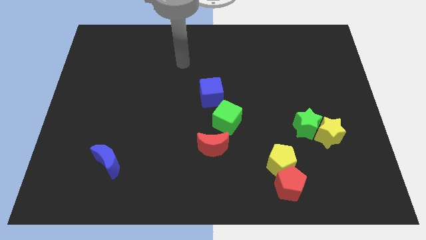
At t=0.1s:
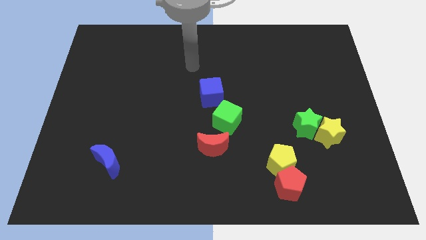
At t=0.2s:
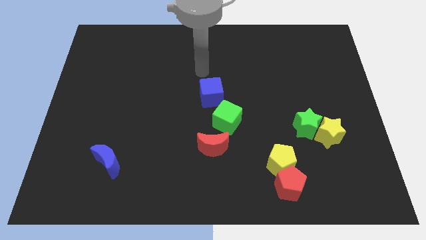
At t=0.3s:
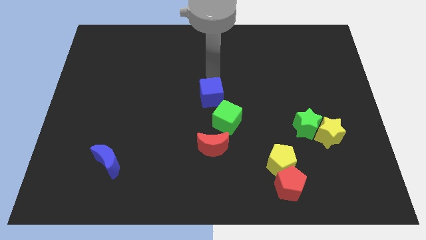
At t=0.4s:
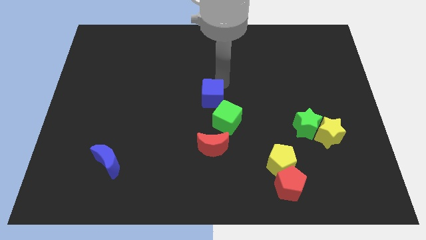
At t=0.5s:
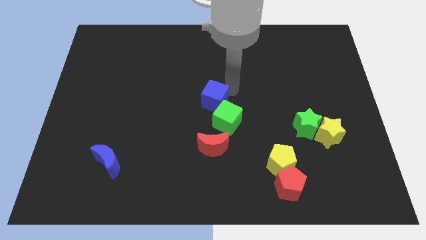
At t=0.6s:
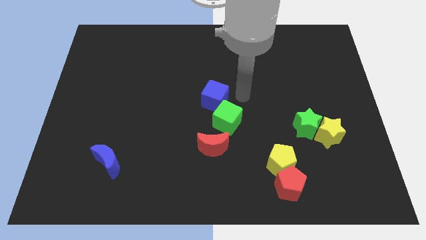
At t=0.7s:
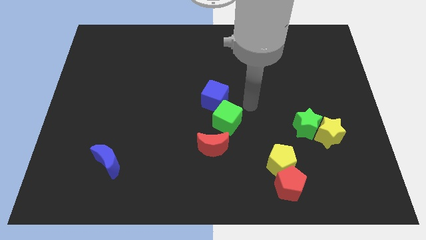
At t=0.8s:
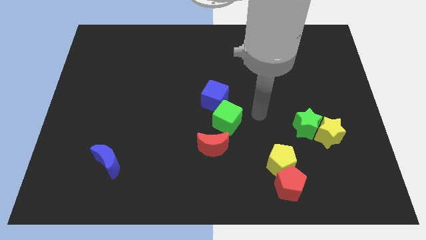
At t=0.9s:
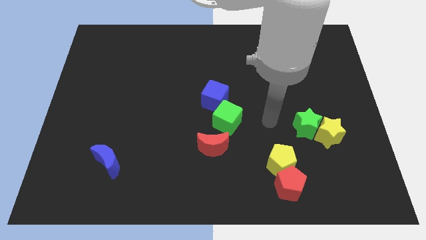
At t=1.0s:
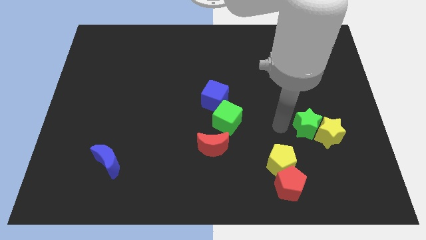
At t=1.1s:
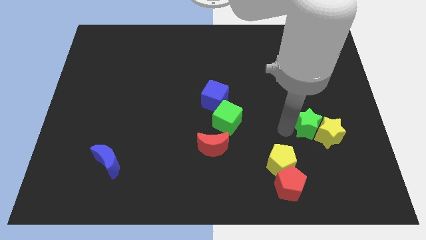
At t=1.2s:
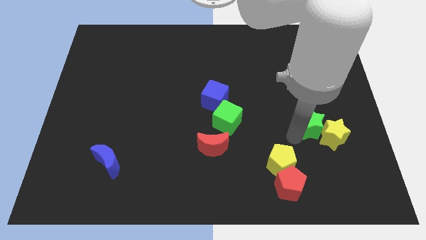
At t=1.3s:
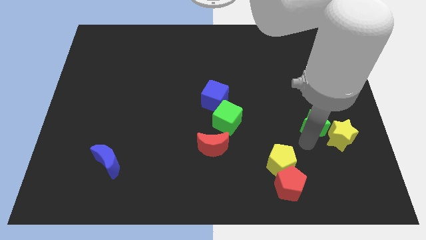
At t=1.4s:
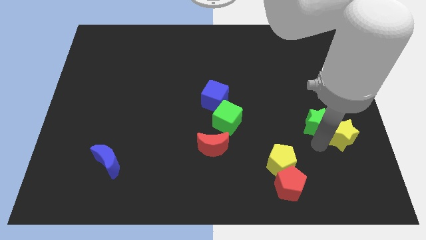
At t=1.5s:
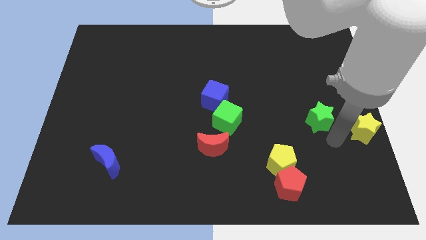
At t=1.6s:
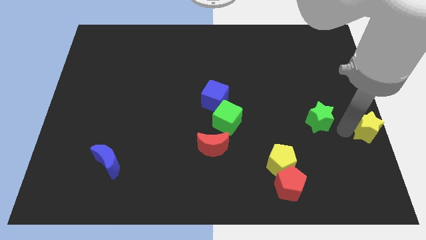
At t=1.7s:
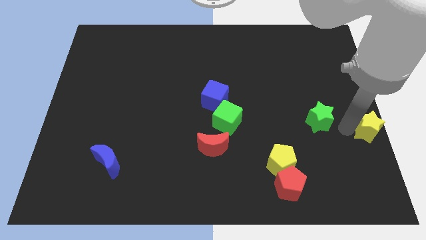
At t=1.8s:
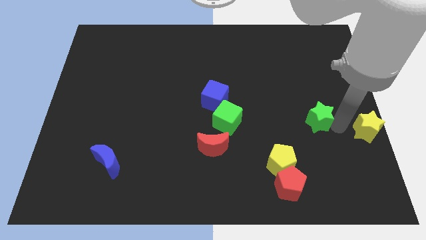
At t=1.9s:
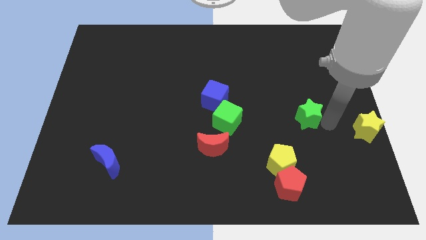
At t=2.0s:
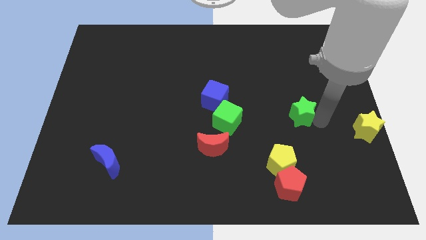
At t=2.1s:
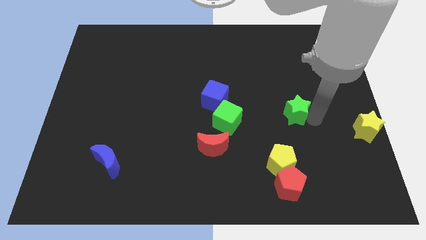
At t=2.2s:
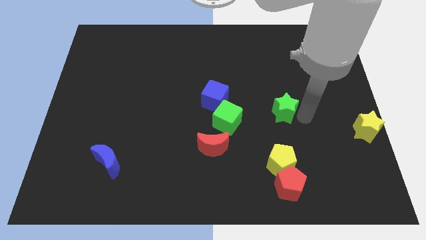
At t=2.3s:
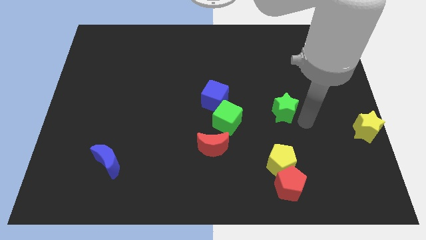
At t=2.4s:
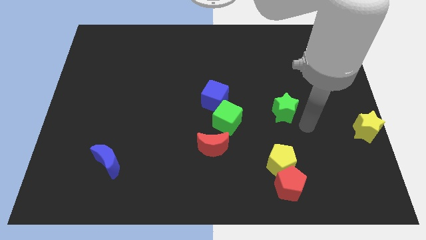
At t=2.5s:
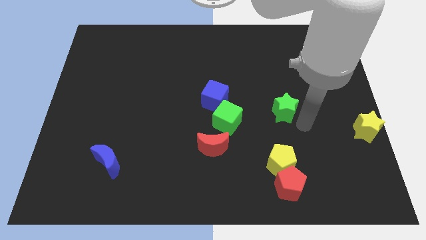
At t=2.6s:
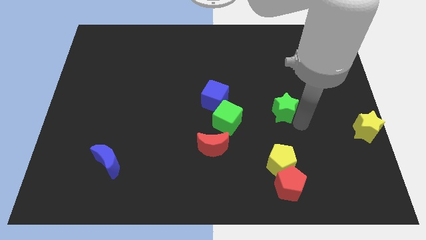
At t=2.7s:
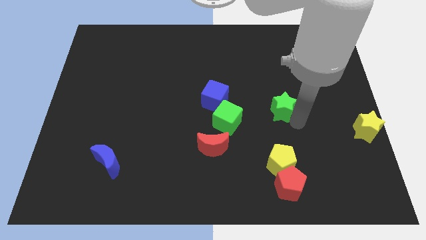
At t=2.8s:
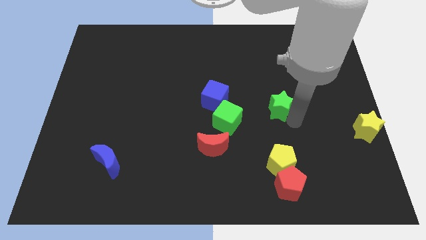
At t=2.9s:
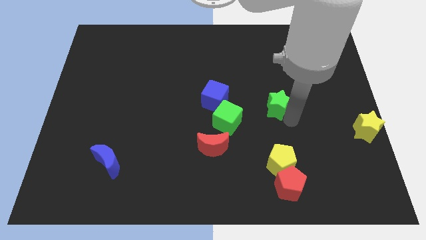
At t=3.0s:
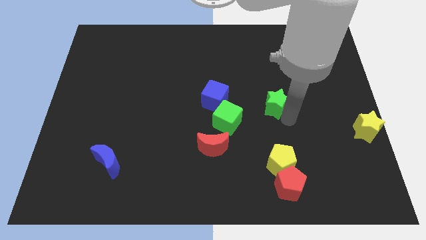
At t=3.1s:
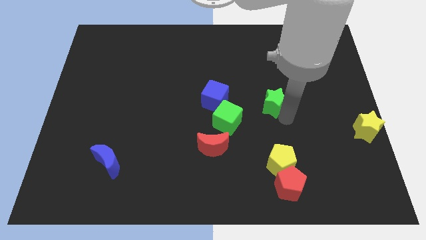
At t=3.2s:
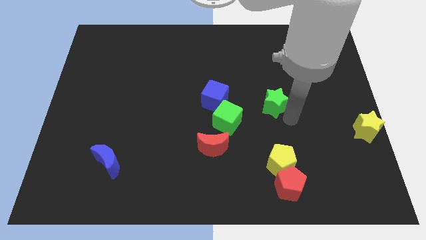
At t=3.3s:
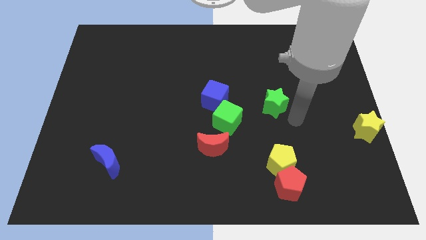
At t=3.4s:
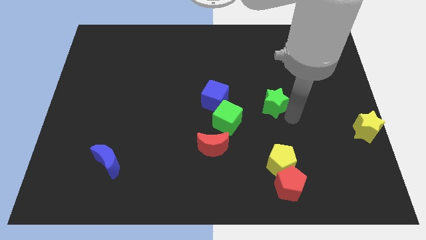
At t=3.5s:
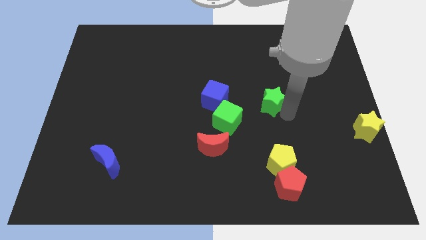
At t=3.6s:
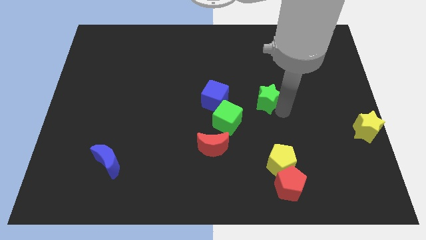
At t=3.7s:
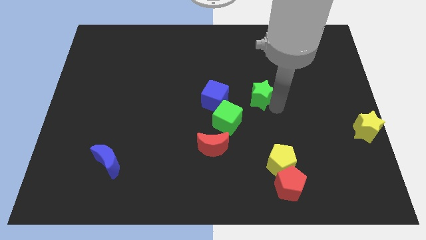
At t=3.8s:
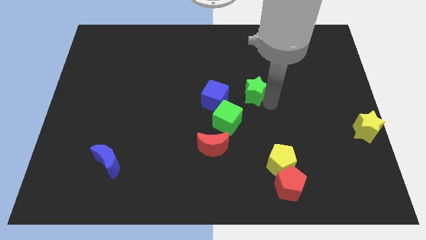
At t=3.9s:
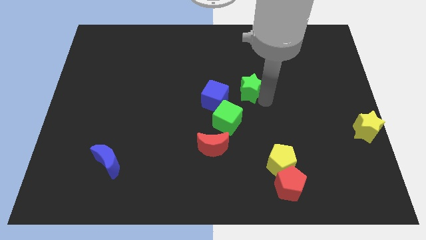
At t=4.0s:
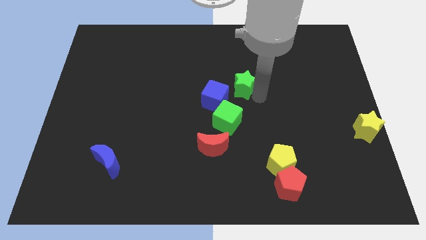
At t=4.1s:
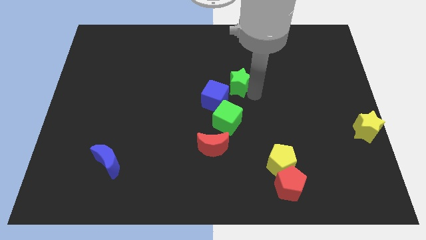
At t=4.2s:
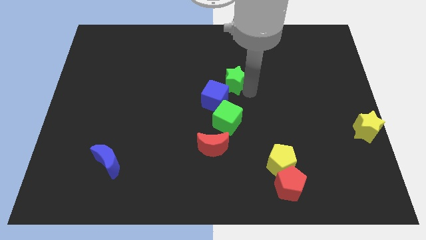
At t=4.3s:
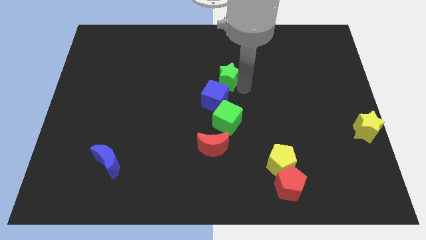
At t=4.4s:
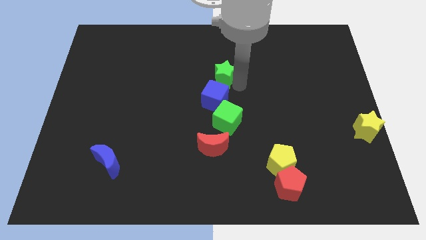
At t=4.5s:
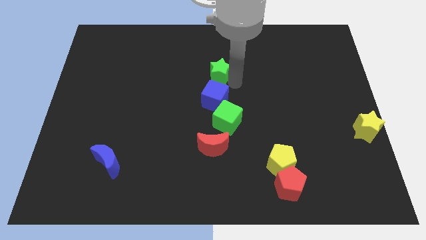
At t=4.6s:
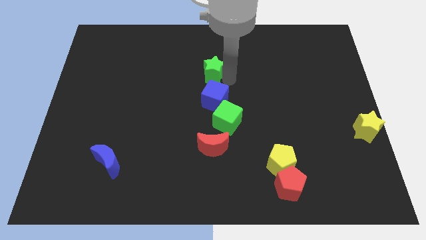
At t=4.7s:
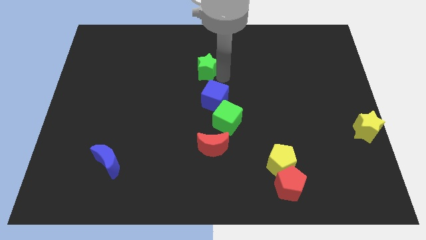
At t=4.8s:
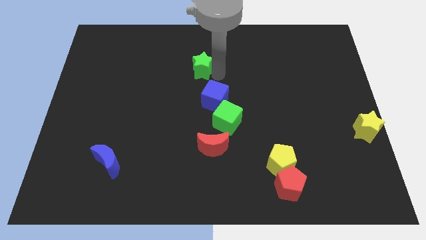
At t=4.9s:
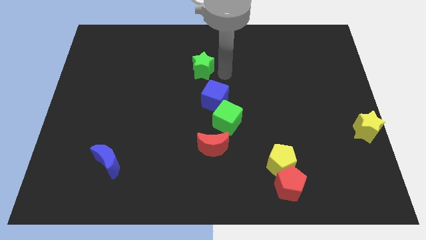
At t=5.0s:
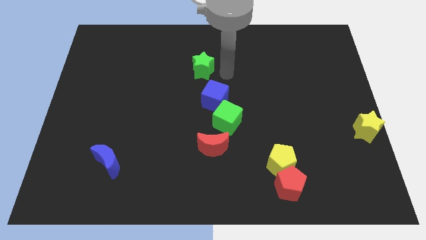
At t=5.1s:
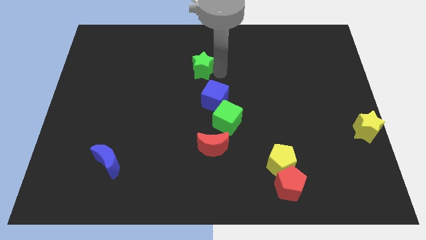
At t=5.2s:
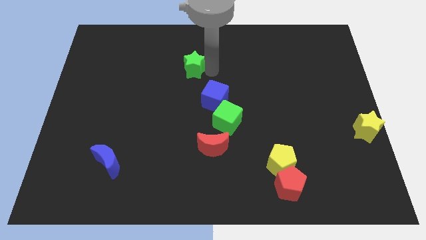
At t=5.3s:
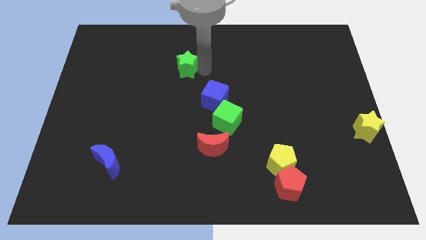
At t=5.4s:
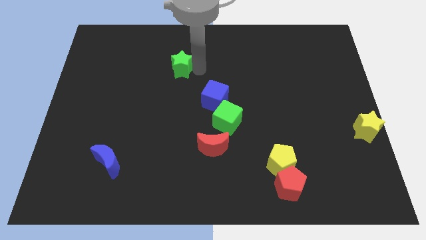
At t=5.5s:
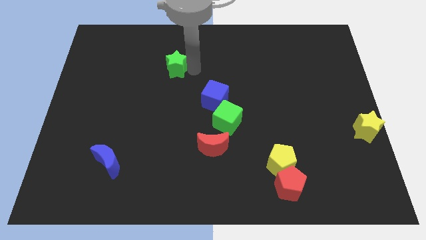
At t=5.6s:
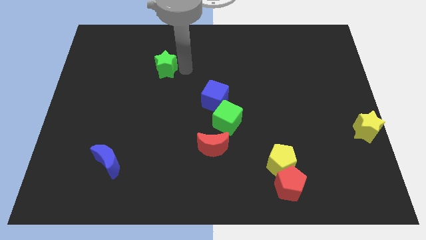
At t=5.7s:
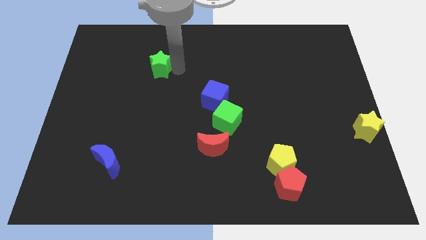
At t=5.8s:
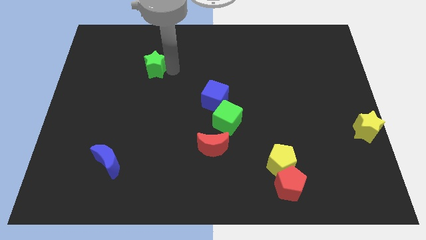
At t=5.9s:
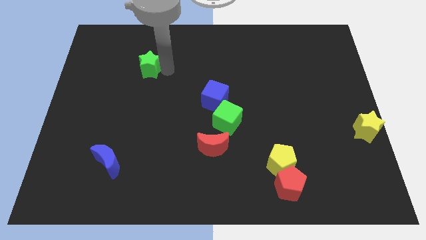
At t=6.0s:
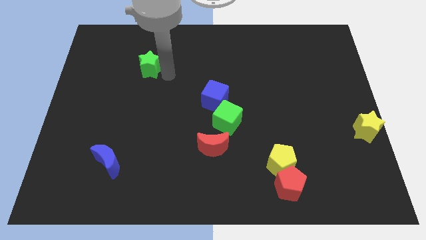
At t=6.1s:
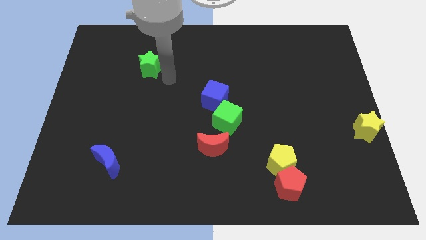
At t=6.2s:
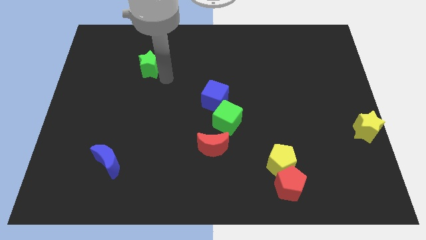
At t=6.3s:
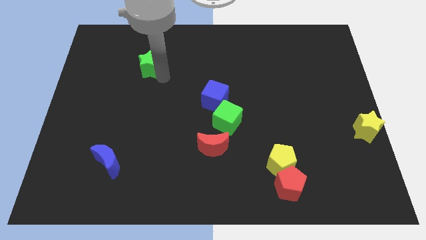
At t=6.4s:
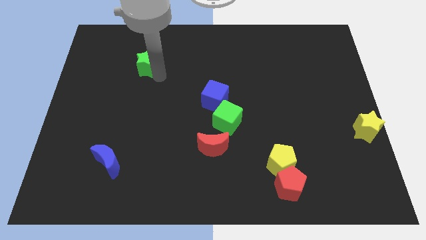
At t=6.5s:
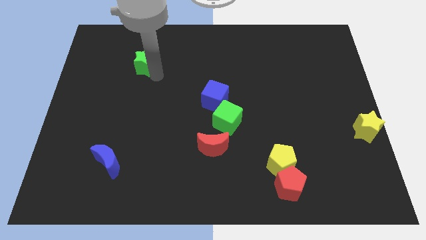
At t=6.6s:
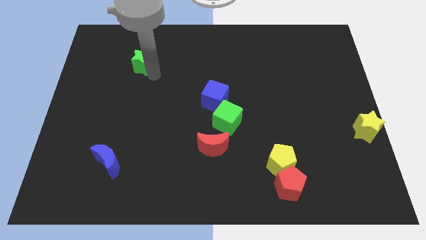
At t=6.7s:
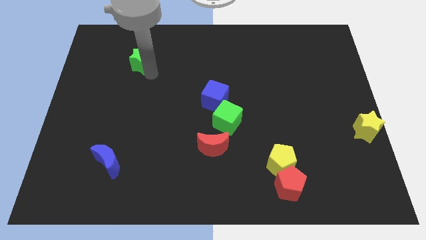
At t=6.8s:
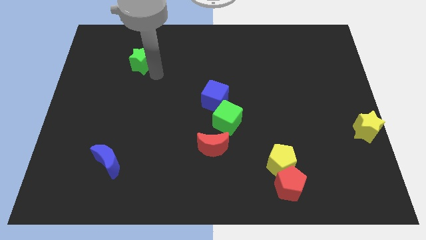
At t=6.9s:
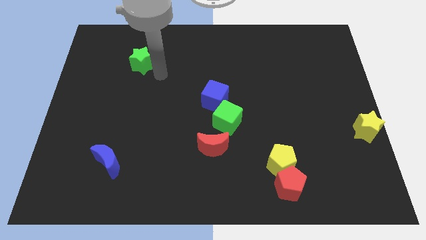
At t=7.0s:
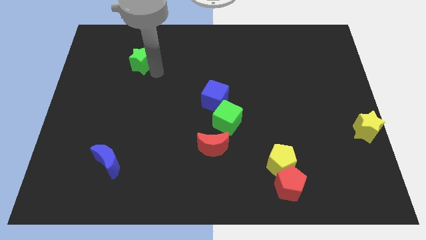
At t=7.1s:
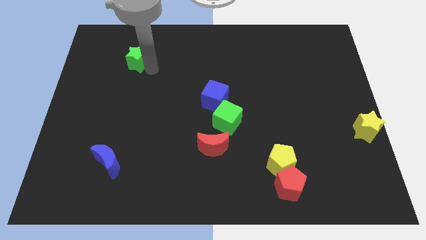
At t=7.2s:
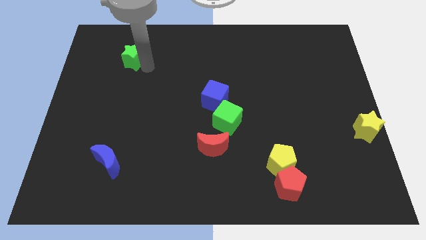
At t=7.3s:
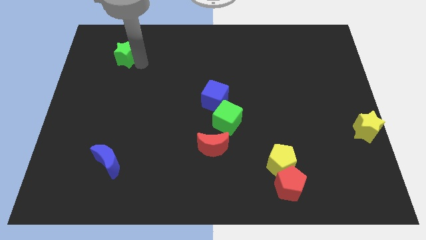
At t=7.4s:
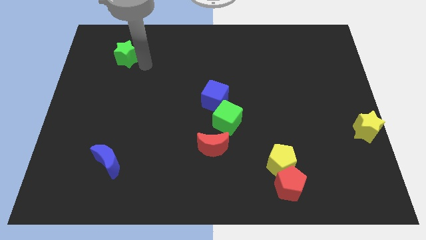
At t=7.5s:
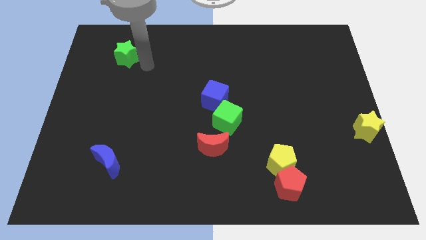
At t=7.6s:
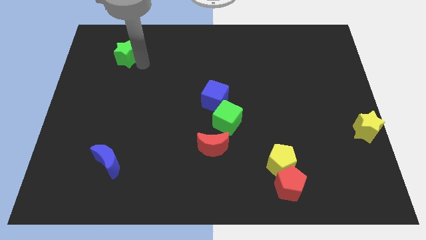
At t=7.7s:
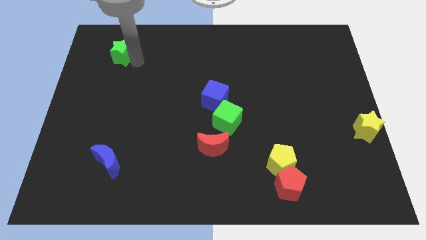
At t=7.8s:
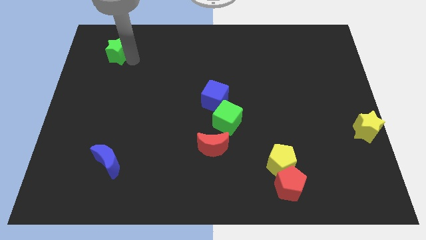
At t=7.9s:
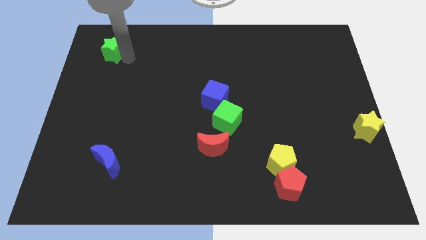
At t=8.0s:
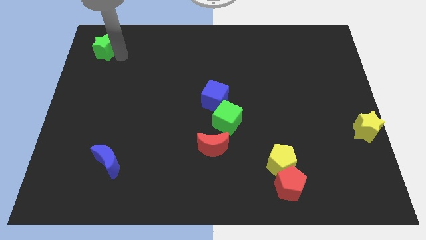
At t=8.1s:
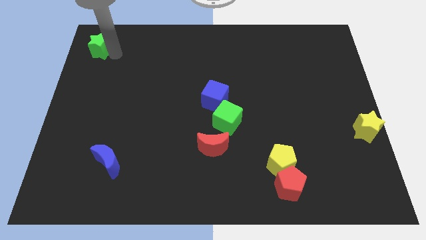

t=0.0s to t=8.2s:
push the green star to the upper left corner
